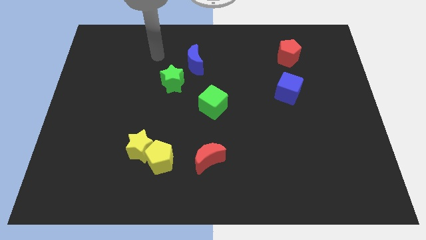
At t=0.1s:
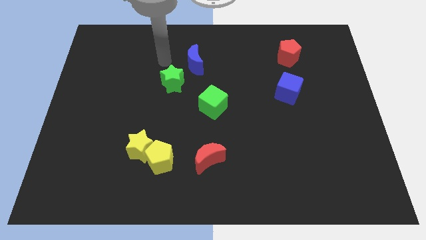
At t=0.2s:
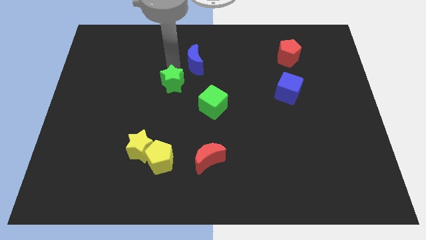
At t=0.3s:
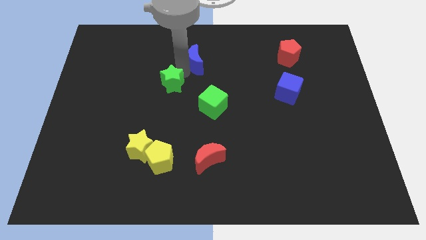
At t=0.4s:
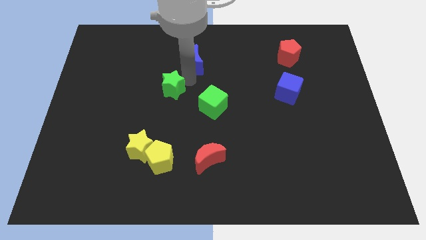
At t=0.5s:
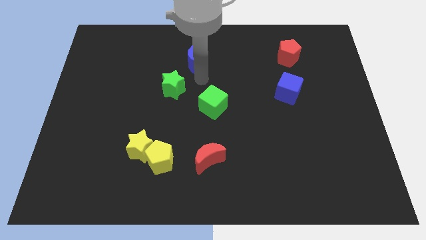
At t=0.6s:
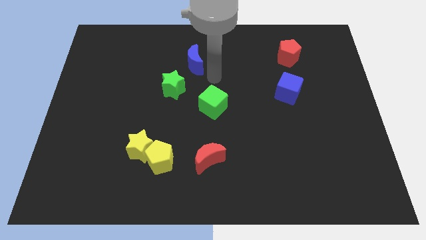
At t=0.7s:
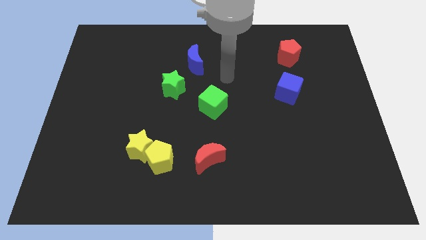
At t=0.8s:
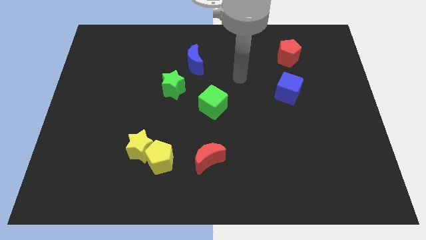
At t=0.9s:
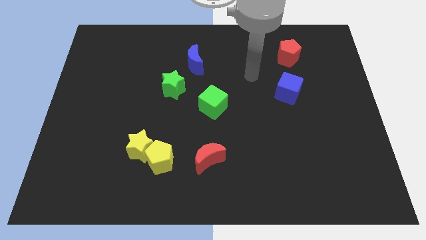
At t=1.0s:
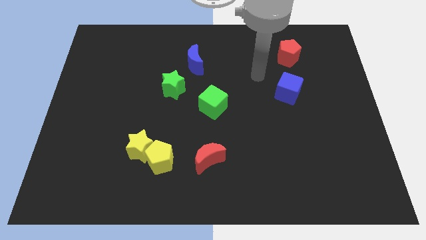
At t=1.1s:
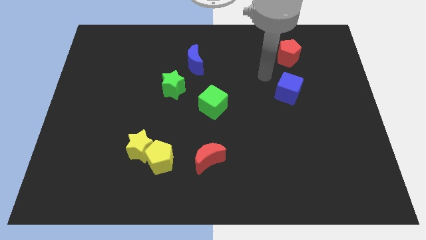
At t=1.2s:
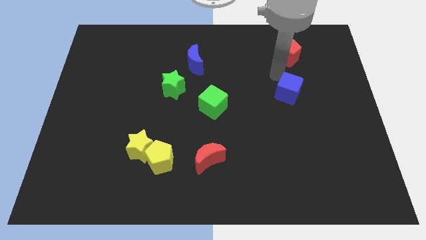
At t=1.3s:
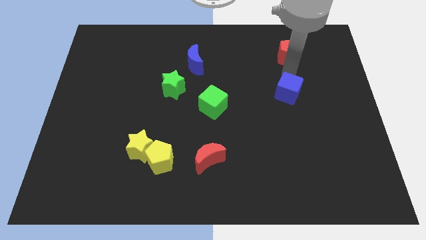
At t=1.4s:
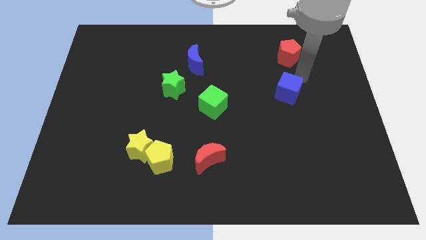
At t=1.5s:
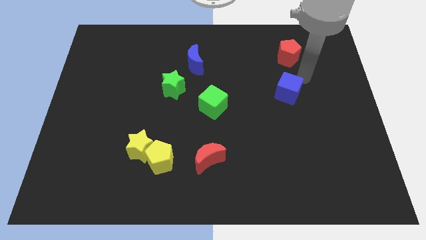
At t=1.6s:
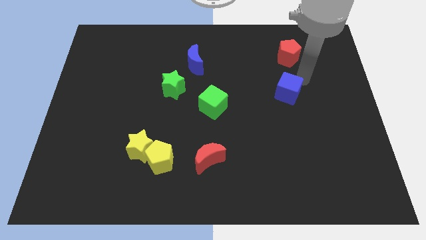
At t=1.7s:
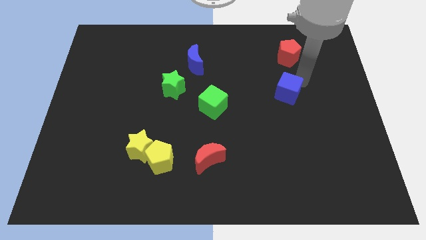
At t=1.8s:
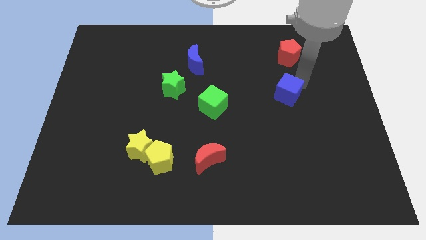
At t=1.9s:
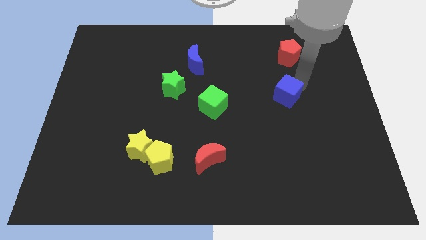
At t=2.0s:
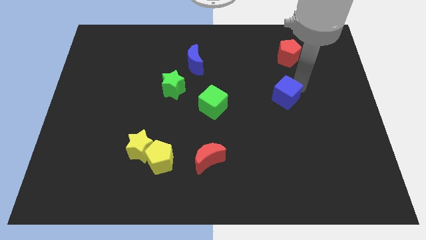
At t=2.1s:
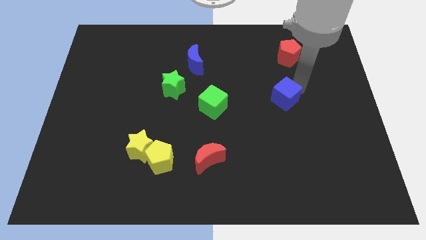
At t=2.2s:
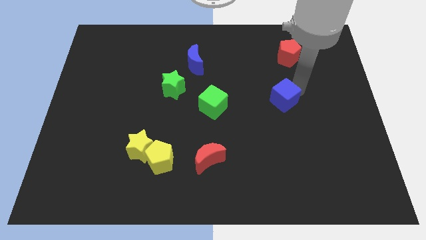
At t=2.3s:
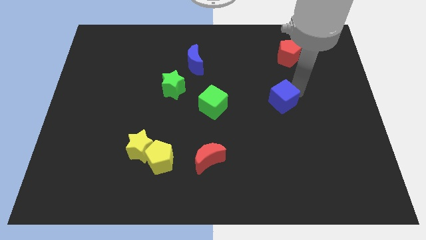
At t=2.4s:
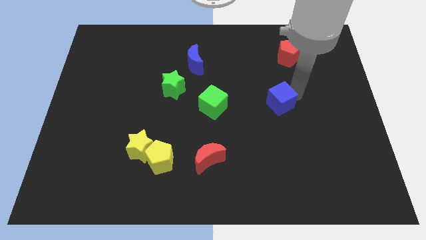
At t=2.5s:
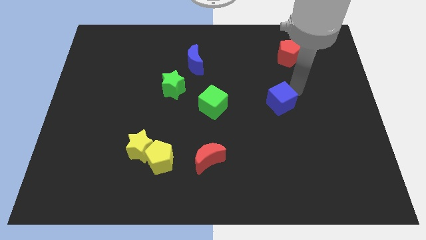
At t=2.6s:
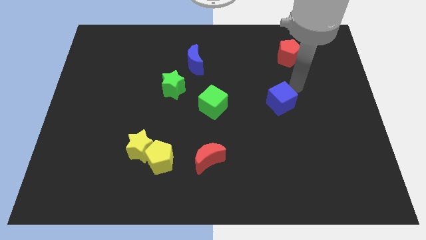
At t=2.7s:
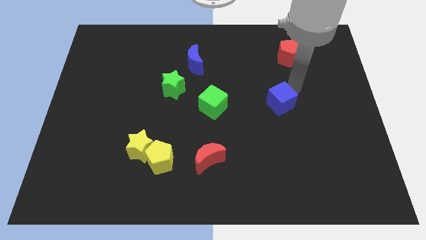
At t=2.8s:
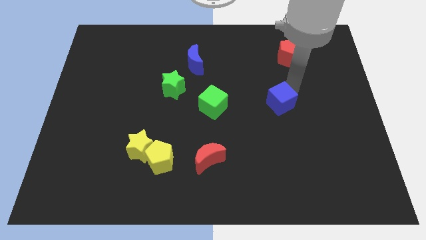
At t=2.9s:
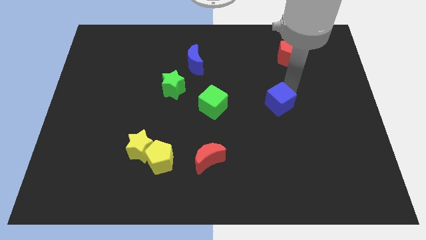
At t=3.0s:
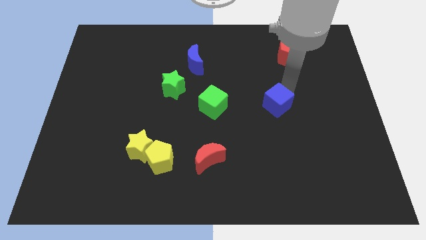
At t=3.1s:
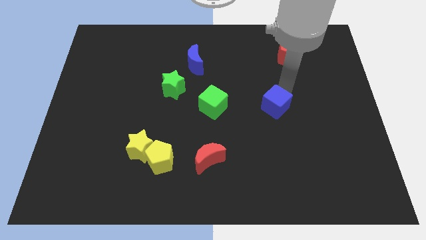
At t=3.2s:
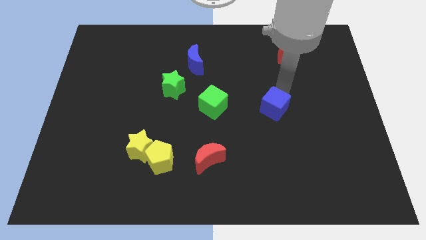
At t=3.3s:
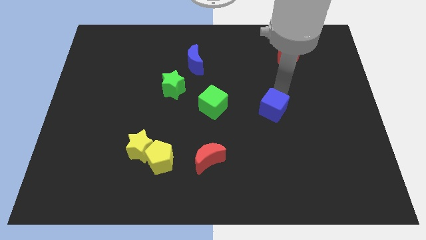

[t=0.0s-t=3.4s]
slightly move the blue cube down and to the left

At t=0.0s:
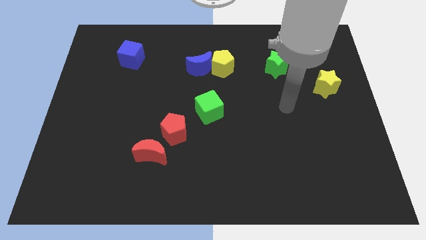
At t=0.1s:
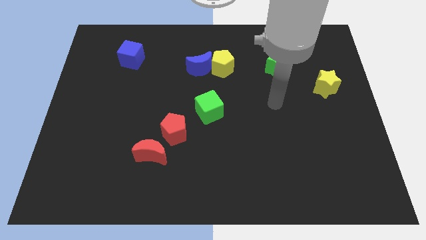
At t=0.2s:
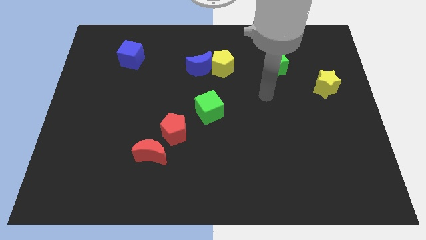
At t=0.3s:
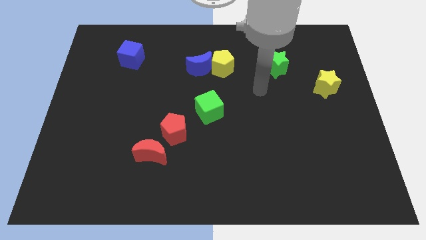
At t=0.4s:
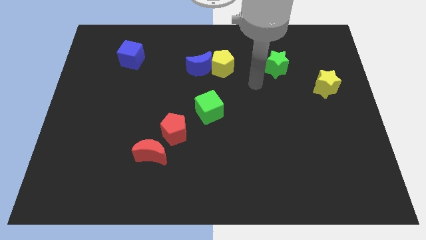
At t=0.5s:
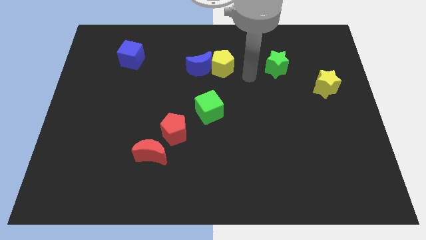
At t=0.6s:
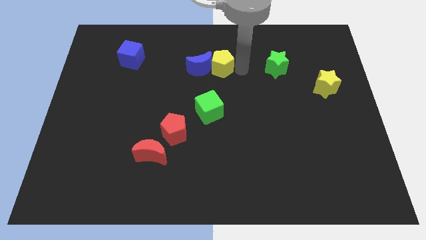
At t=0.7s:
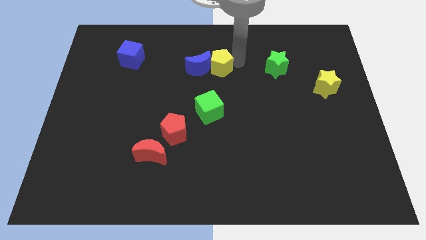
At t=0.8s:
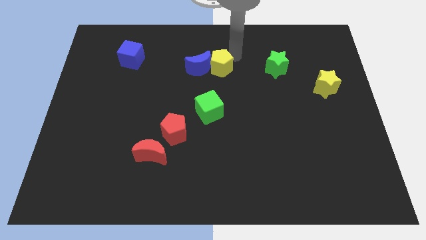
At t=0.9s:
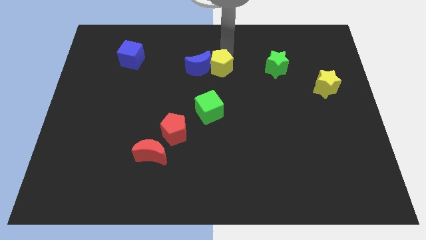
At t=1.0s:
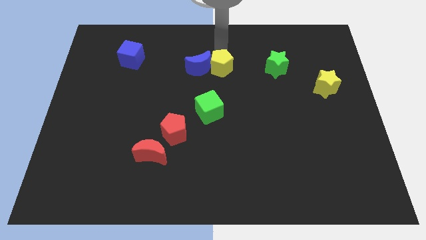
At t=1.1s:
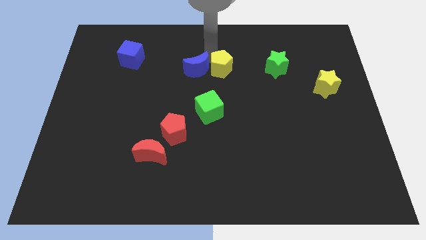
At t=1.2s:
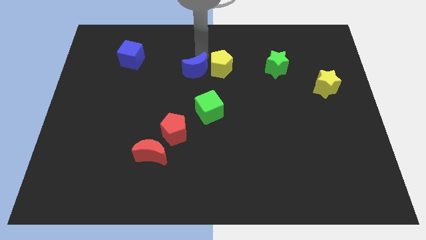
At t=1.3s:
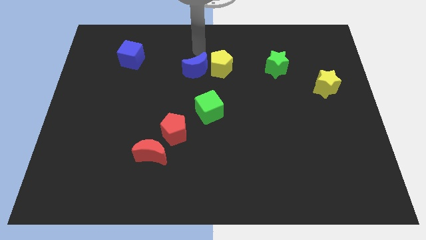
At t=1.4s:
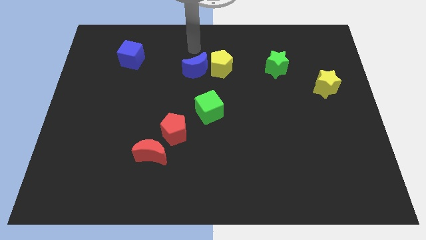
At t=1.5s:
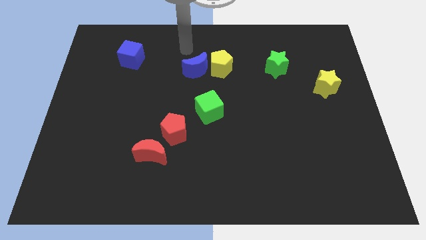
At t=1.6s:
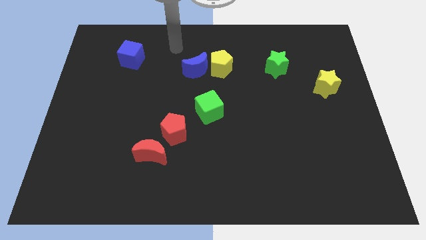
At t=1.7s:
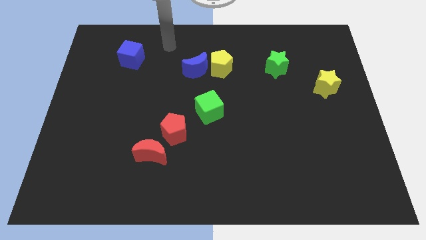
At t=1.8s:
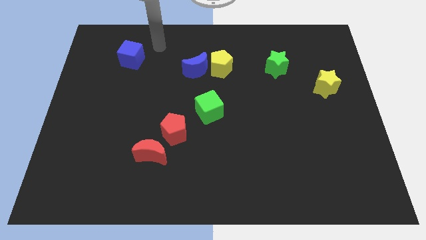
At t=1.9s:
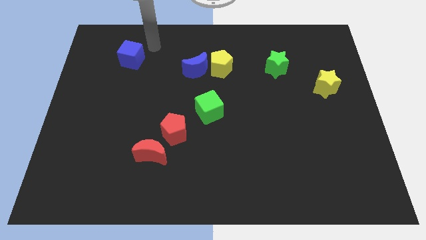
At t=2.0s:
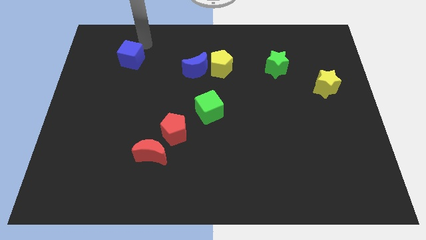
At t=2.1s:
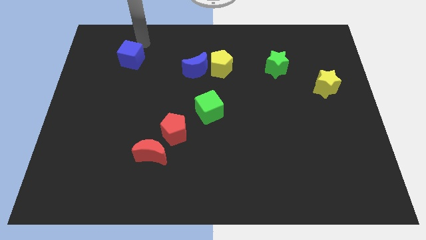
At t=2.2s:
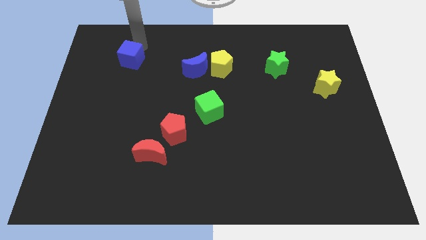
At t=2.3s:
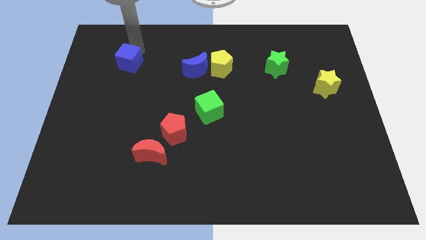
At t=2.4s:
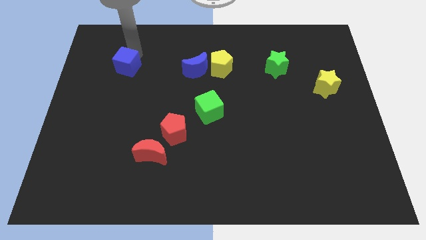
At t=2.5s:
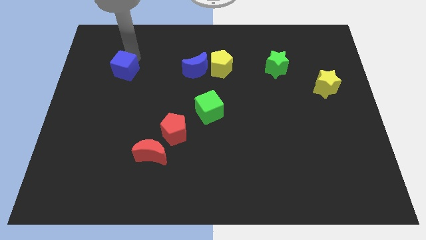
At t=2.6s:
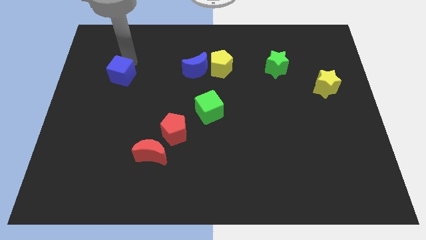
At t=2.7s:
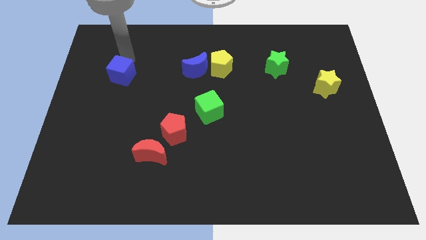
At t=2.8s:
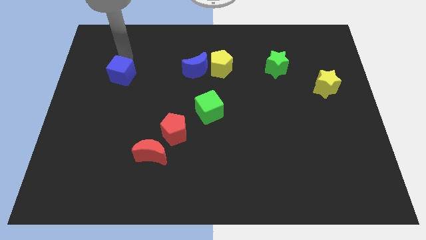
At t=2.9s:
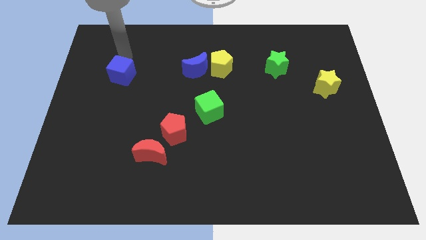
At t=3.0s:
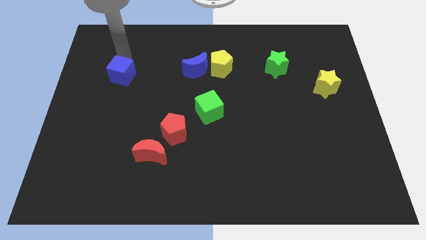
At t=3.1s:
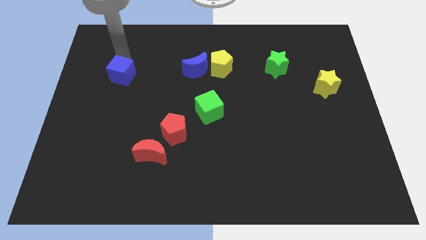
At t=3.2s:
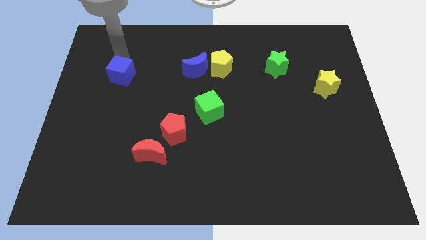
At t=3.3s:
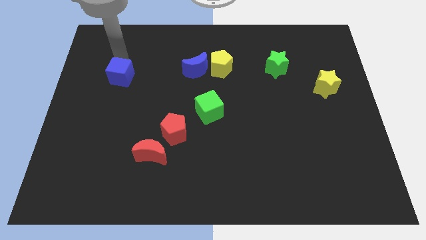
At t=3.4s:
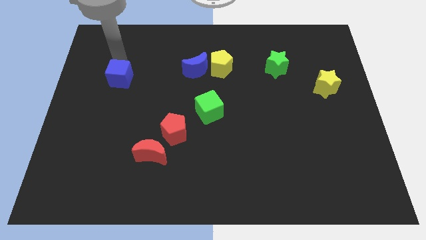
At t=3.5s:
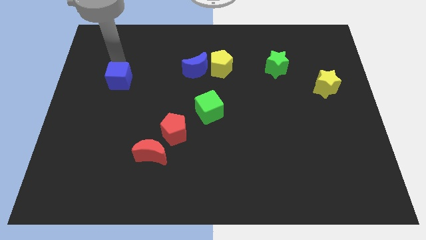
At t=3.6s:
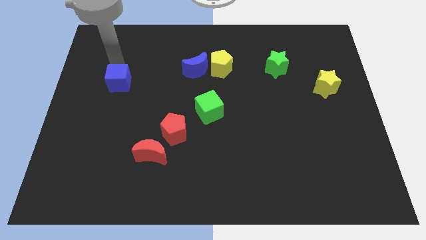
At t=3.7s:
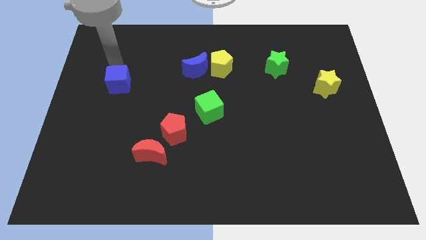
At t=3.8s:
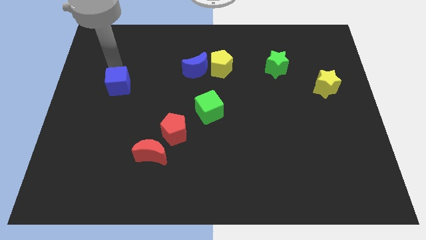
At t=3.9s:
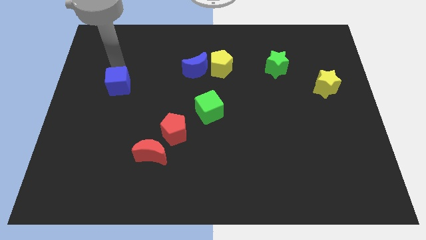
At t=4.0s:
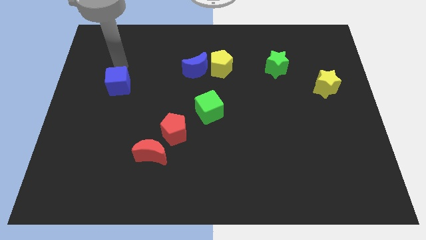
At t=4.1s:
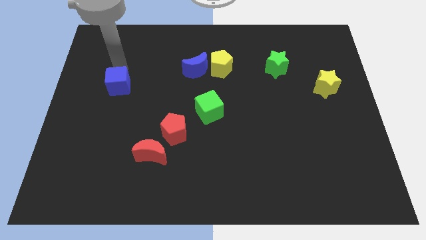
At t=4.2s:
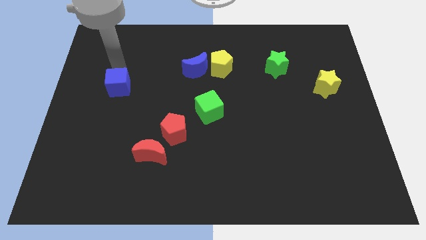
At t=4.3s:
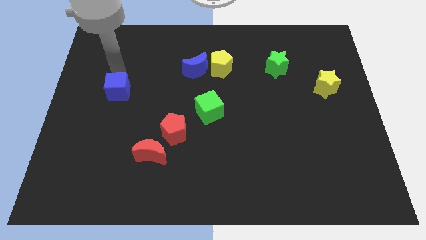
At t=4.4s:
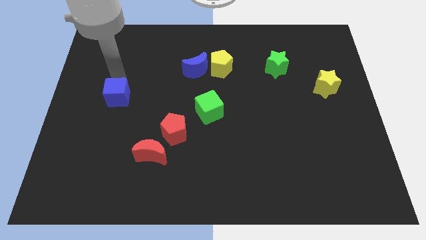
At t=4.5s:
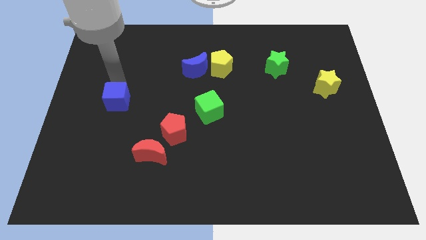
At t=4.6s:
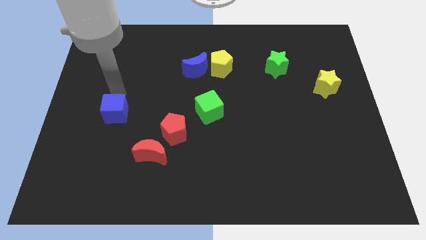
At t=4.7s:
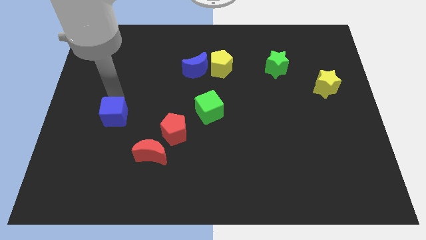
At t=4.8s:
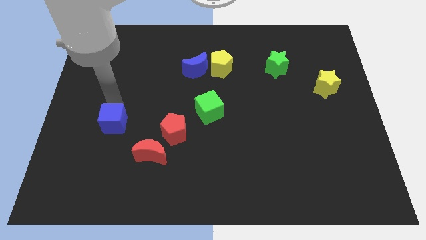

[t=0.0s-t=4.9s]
push the blue cube down

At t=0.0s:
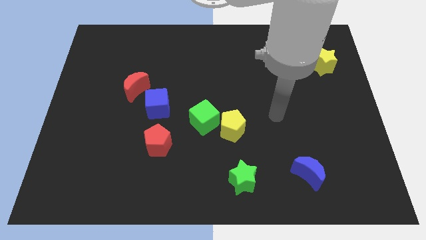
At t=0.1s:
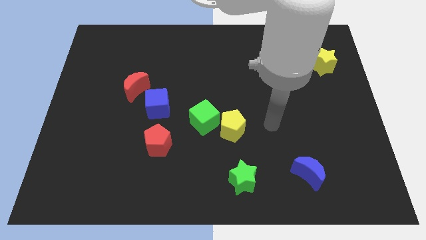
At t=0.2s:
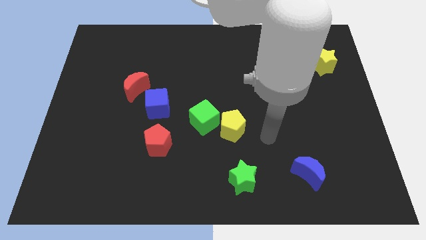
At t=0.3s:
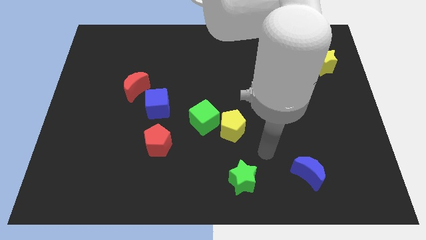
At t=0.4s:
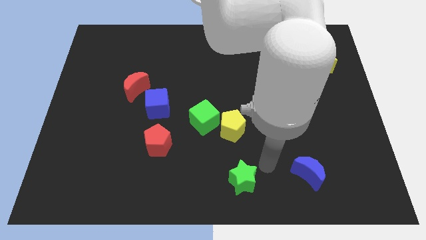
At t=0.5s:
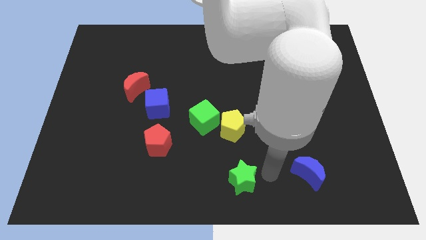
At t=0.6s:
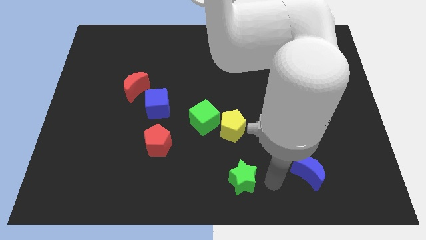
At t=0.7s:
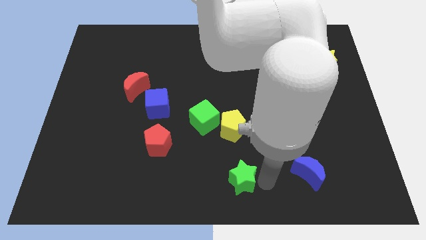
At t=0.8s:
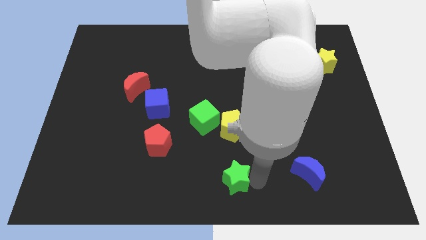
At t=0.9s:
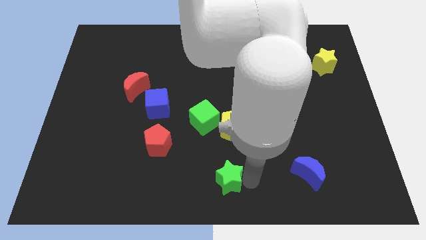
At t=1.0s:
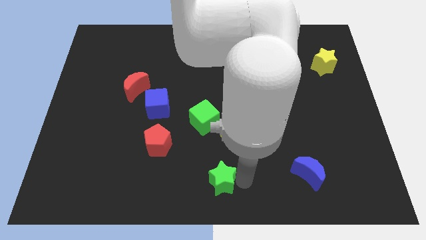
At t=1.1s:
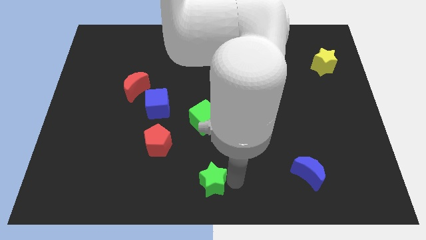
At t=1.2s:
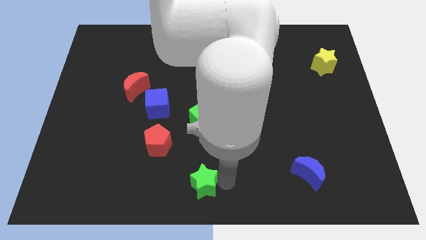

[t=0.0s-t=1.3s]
slightly slide the green star to the left
